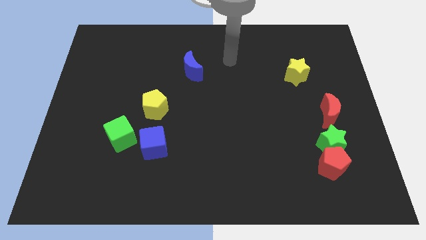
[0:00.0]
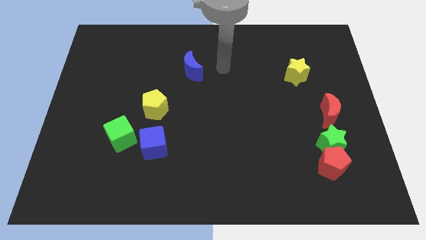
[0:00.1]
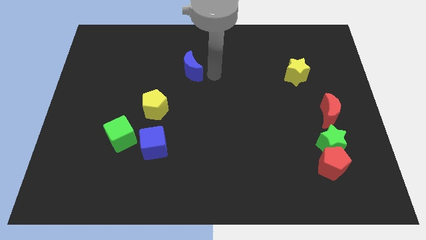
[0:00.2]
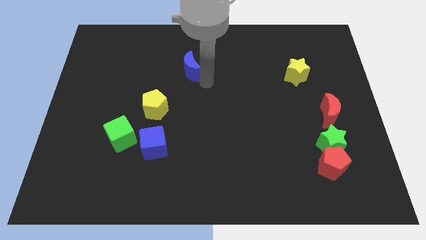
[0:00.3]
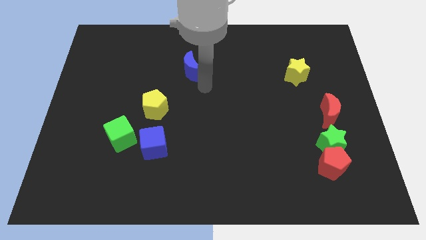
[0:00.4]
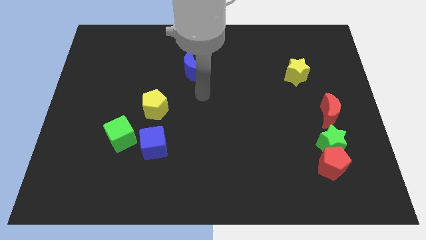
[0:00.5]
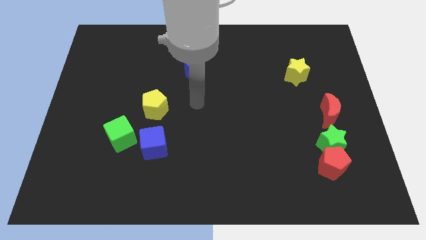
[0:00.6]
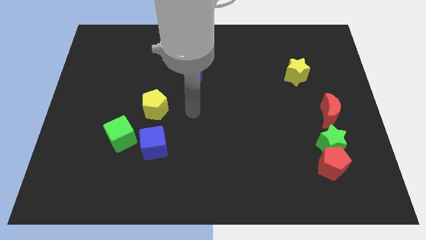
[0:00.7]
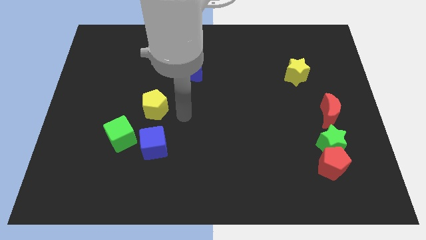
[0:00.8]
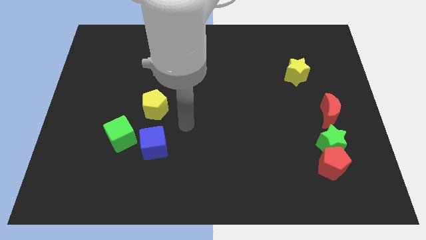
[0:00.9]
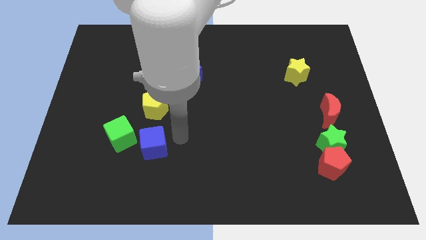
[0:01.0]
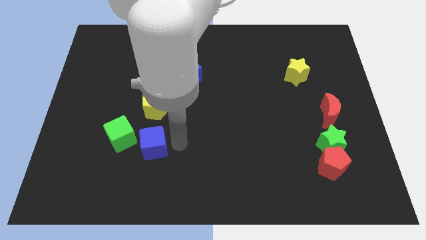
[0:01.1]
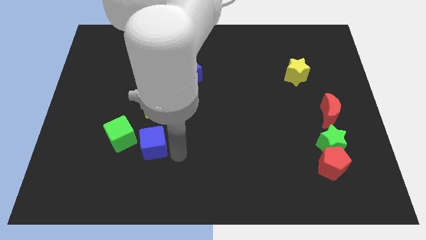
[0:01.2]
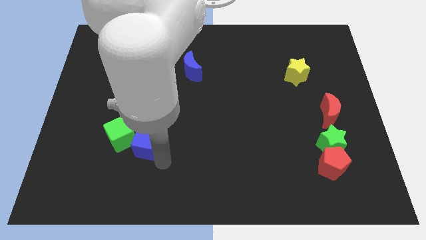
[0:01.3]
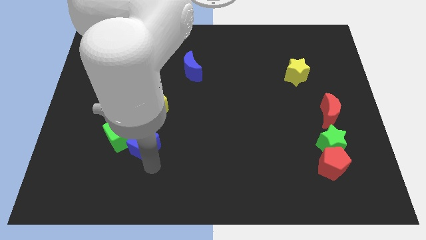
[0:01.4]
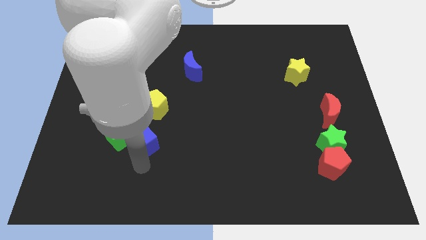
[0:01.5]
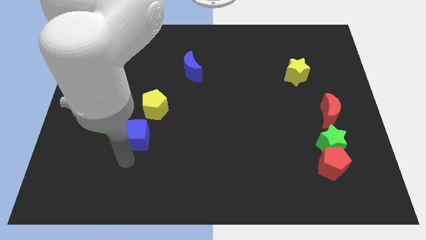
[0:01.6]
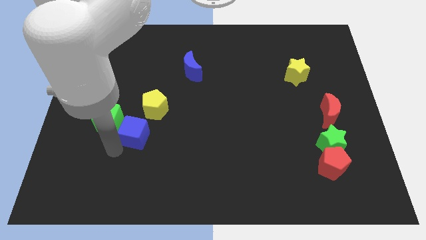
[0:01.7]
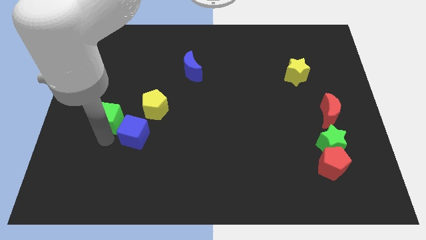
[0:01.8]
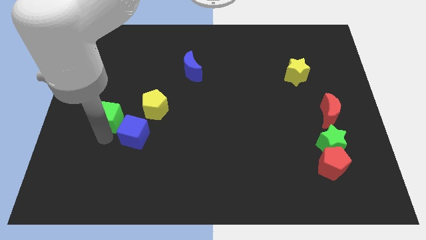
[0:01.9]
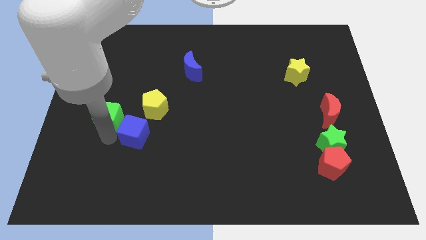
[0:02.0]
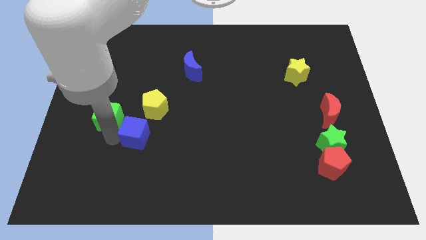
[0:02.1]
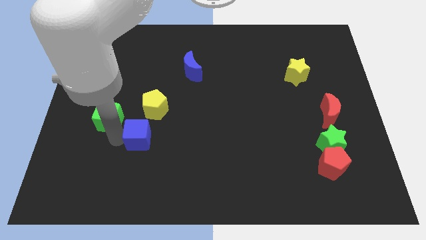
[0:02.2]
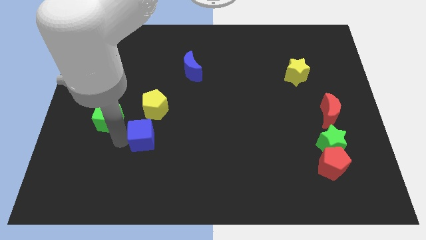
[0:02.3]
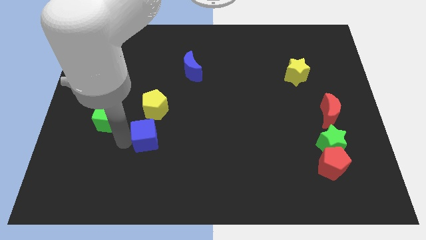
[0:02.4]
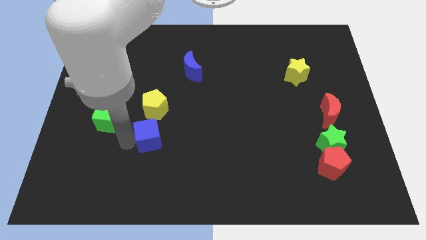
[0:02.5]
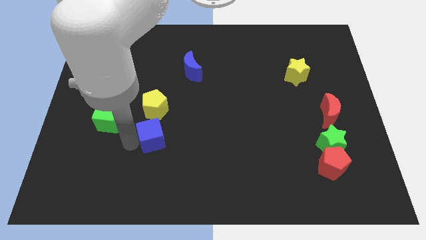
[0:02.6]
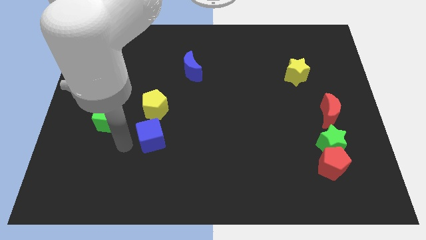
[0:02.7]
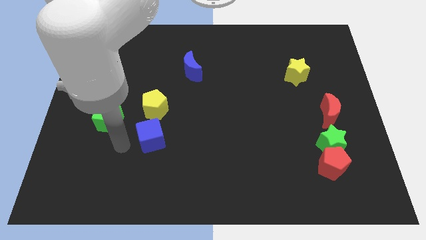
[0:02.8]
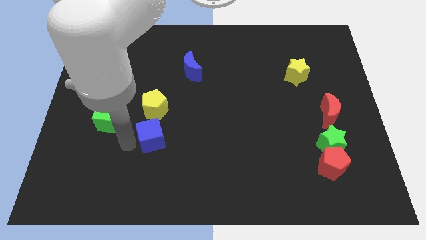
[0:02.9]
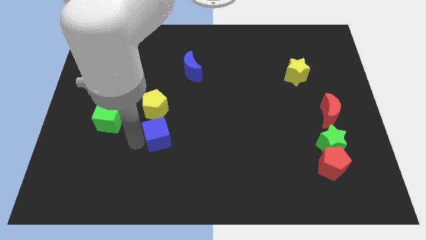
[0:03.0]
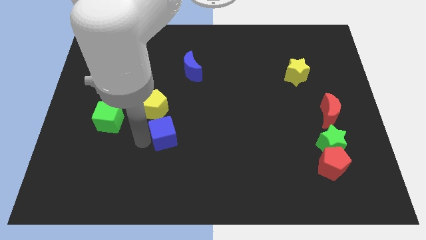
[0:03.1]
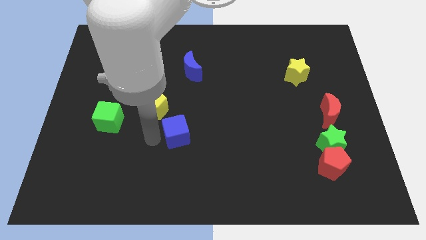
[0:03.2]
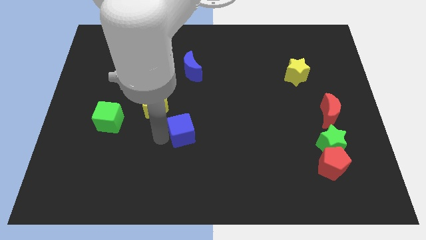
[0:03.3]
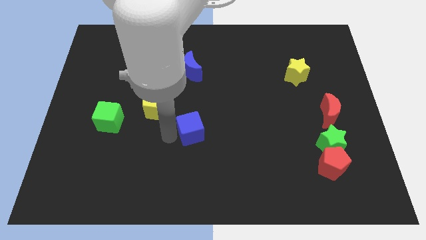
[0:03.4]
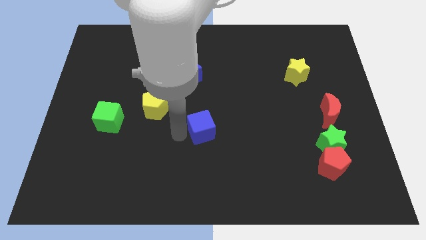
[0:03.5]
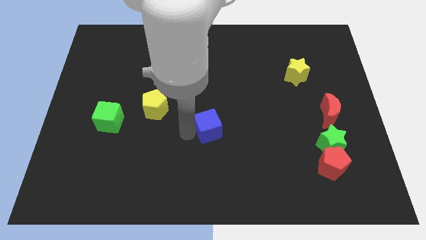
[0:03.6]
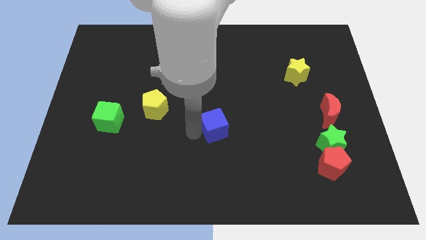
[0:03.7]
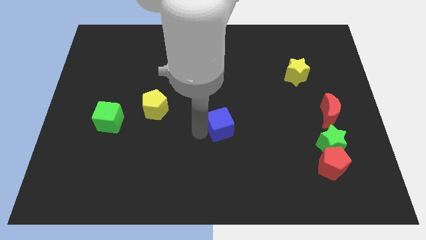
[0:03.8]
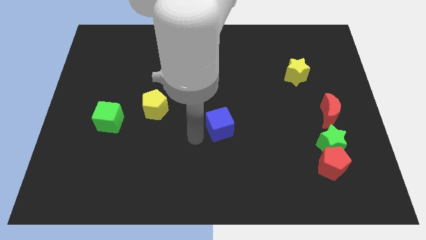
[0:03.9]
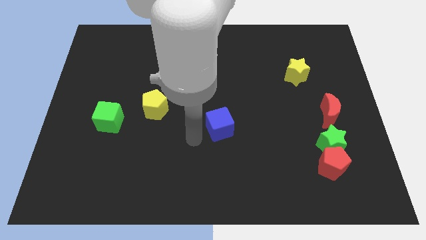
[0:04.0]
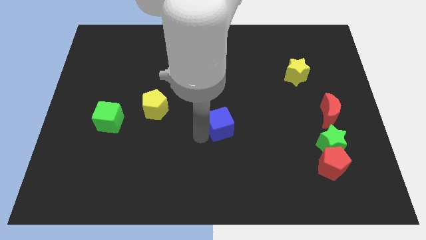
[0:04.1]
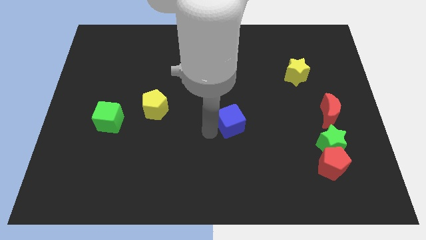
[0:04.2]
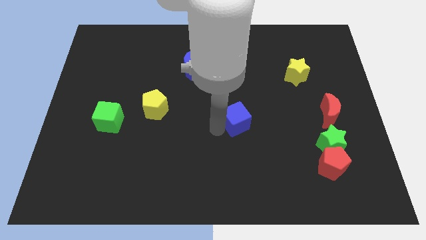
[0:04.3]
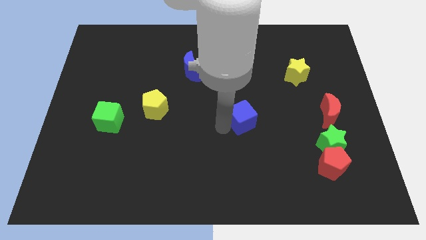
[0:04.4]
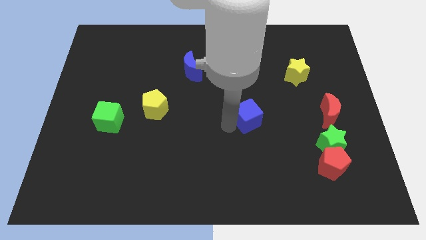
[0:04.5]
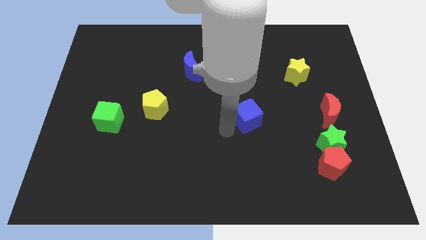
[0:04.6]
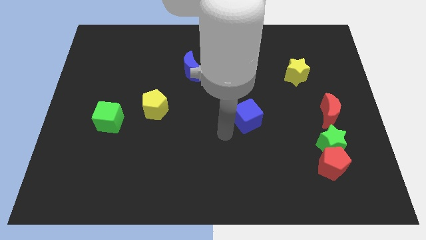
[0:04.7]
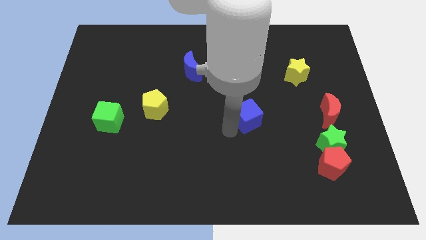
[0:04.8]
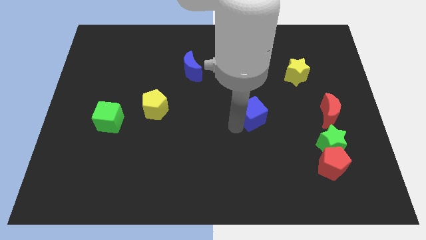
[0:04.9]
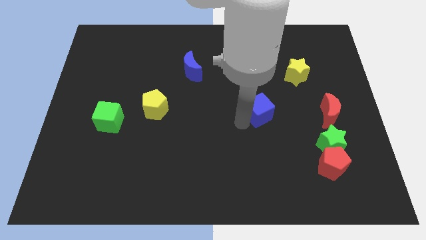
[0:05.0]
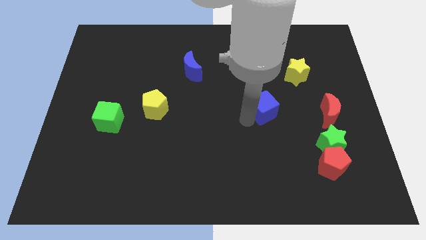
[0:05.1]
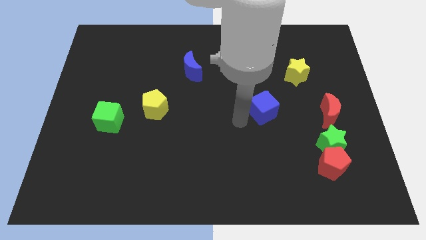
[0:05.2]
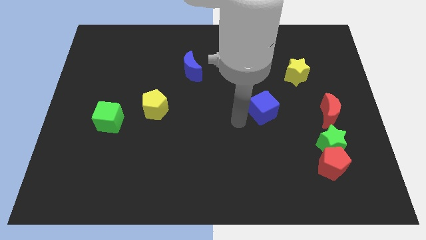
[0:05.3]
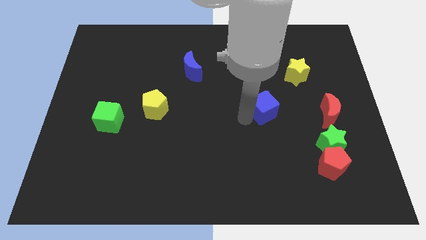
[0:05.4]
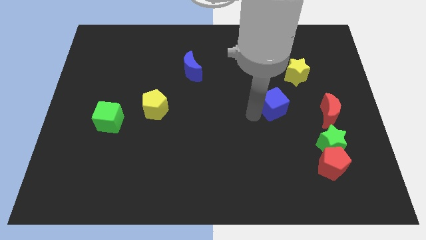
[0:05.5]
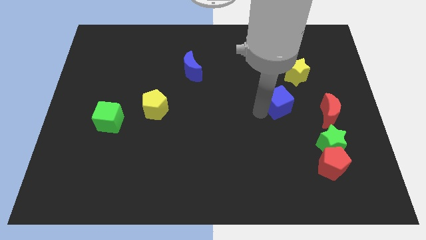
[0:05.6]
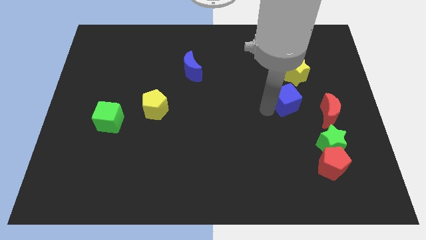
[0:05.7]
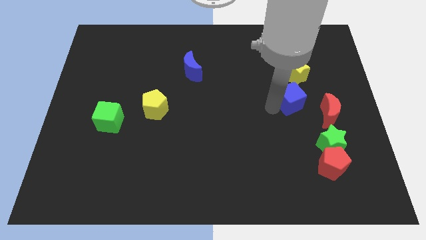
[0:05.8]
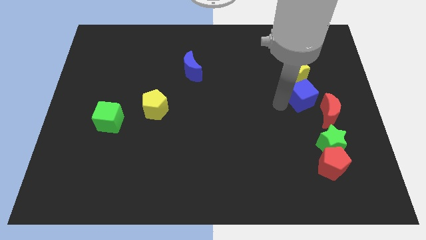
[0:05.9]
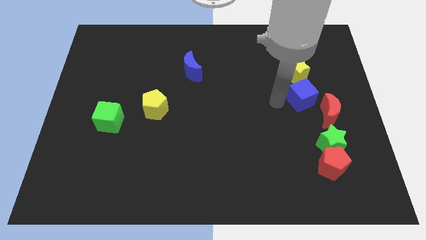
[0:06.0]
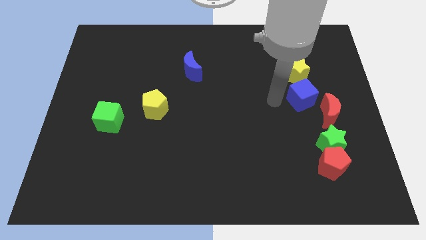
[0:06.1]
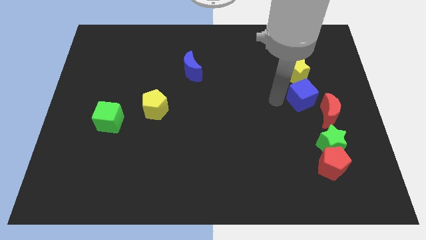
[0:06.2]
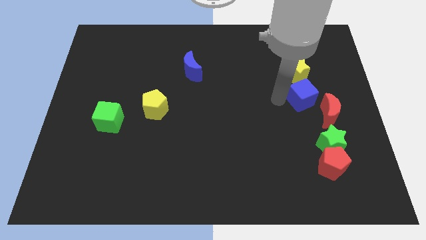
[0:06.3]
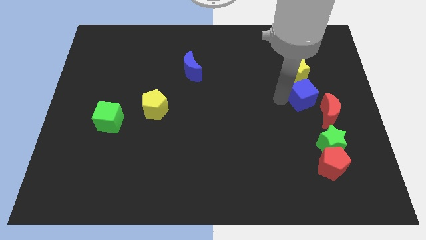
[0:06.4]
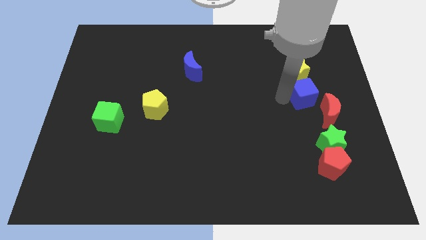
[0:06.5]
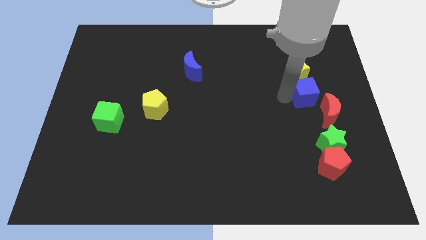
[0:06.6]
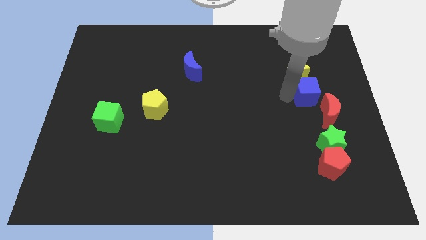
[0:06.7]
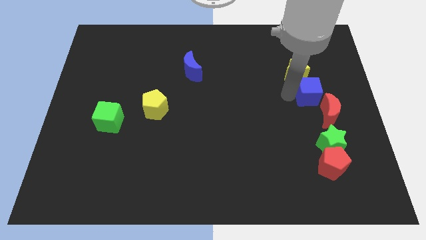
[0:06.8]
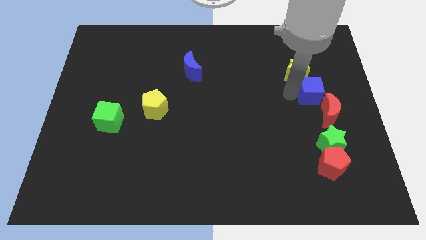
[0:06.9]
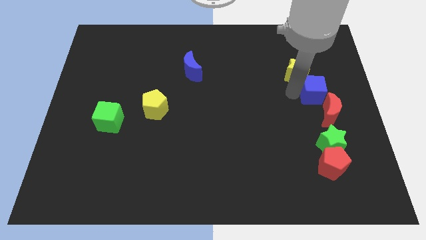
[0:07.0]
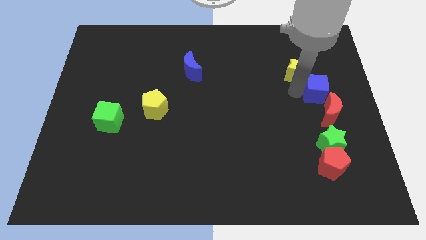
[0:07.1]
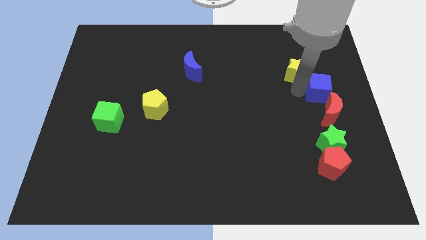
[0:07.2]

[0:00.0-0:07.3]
push the blue cube to the right side
